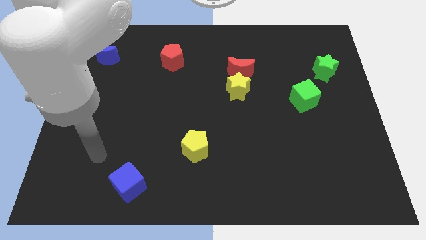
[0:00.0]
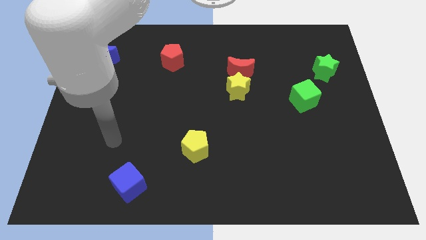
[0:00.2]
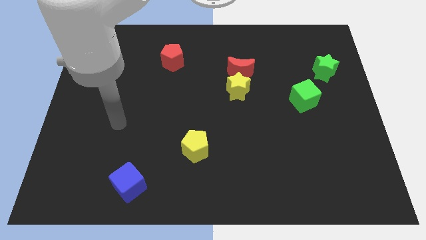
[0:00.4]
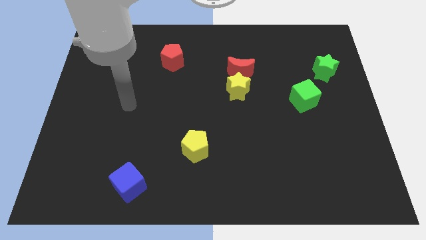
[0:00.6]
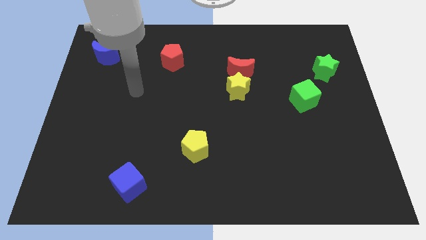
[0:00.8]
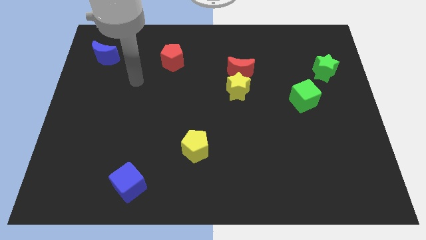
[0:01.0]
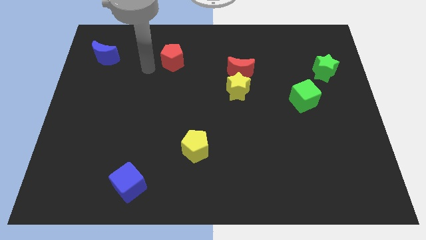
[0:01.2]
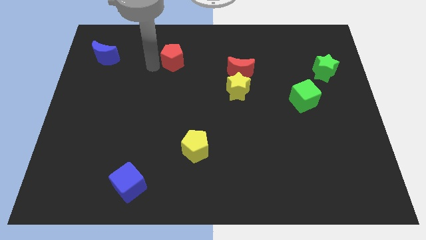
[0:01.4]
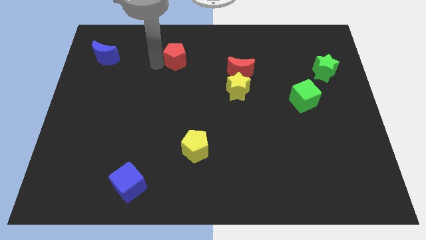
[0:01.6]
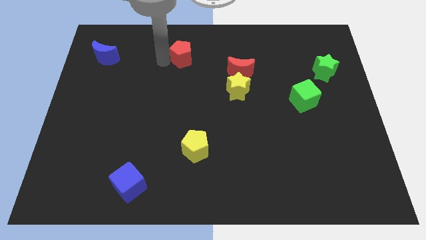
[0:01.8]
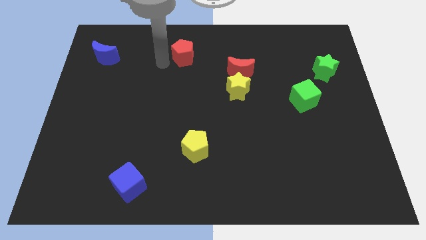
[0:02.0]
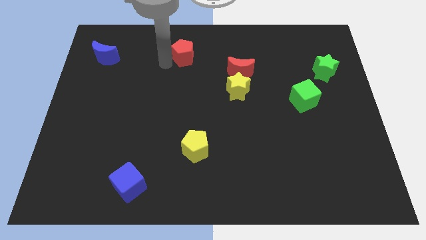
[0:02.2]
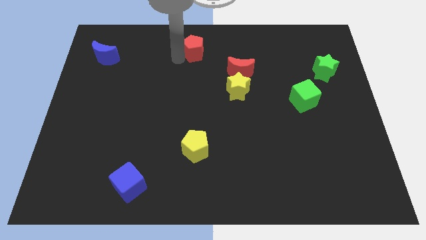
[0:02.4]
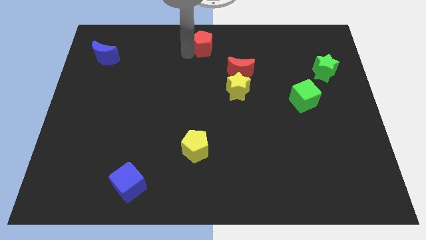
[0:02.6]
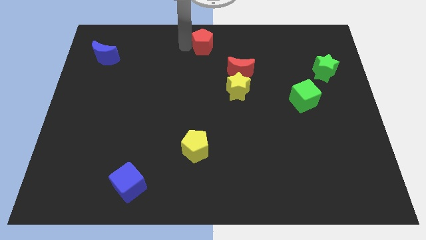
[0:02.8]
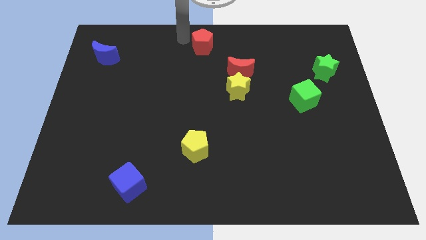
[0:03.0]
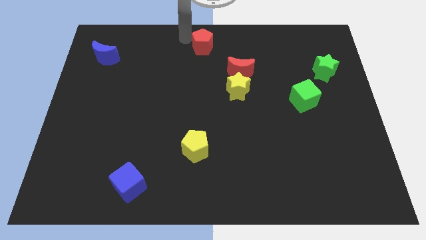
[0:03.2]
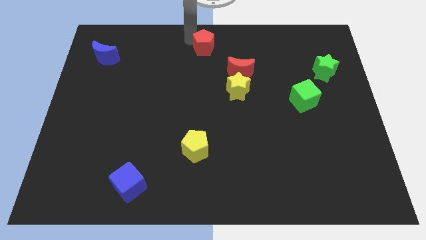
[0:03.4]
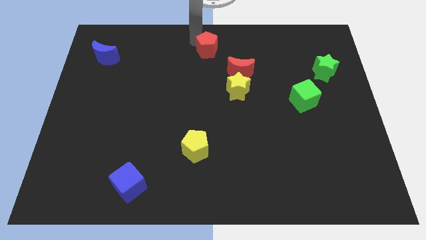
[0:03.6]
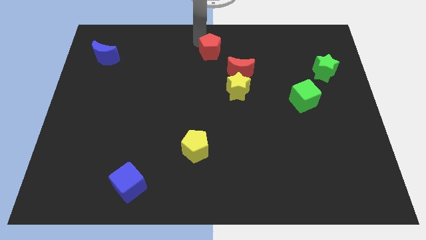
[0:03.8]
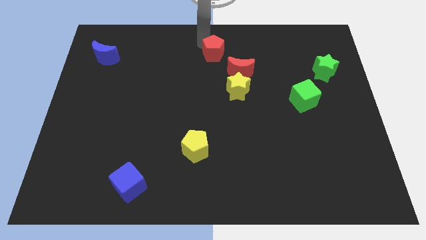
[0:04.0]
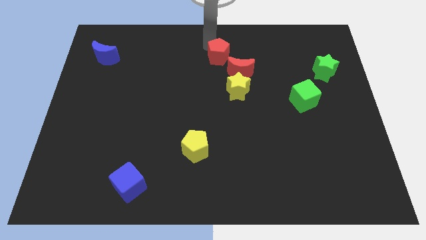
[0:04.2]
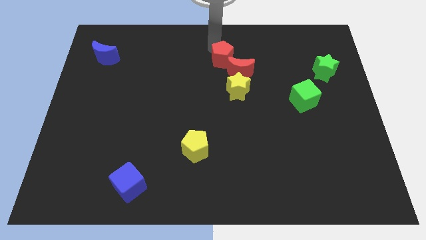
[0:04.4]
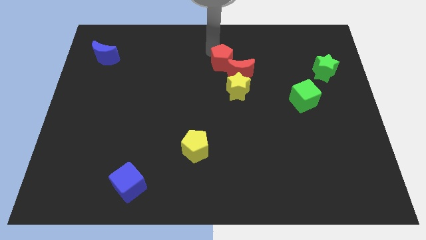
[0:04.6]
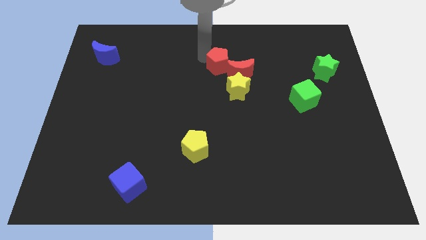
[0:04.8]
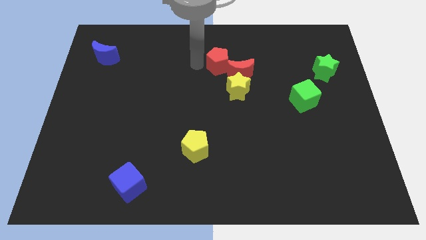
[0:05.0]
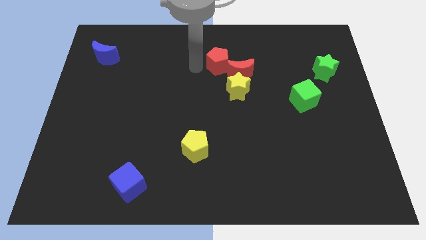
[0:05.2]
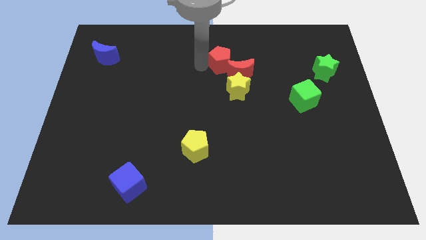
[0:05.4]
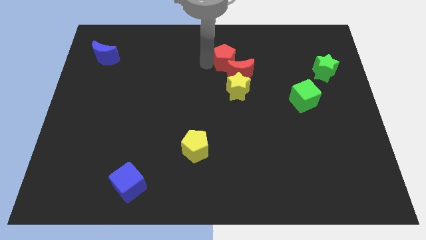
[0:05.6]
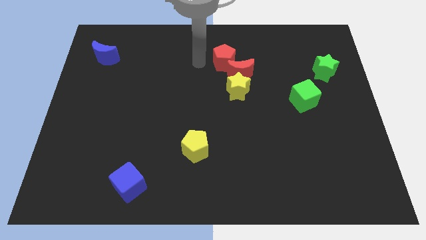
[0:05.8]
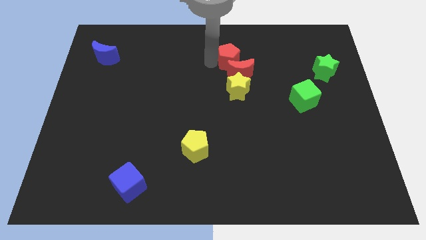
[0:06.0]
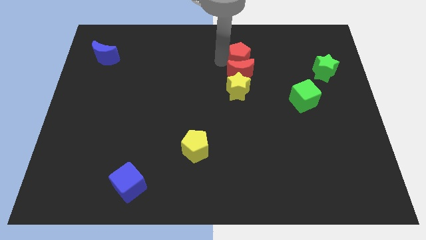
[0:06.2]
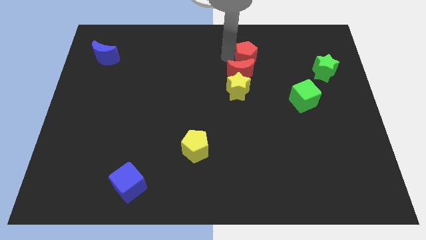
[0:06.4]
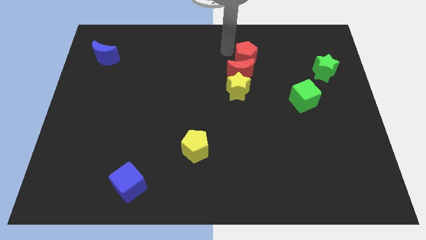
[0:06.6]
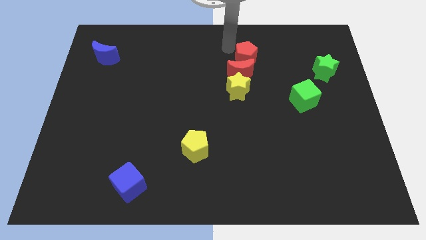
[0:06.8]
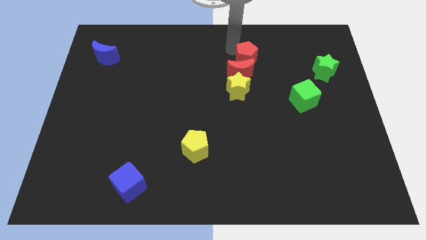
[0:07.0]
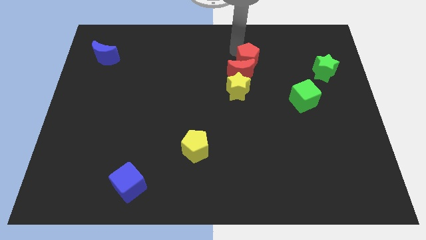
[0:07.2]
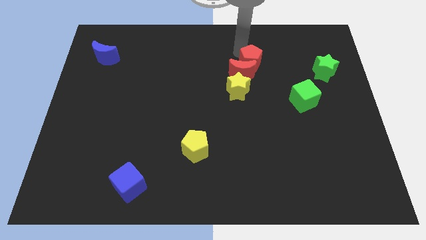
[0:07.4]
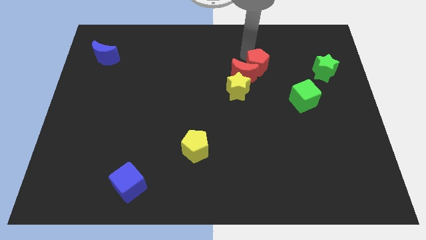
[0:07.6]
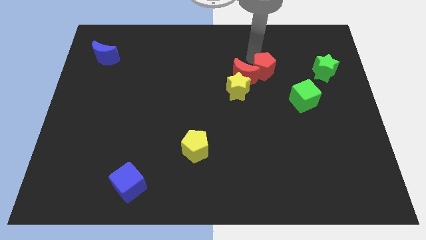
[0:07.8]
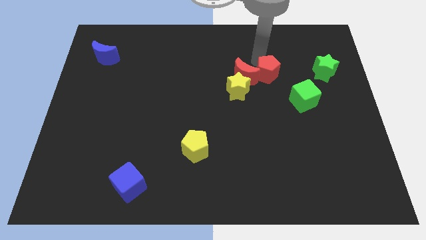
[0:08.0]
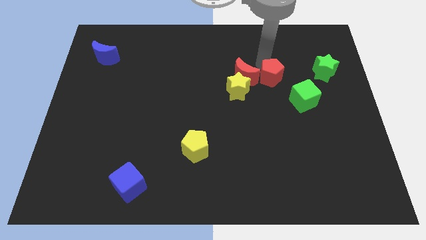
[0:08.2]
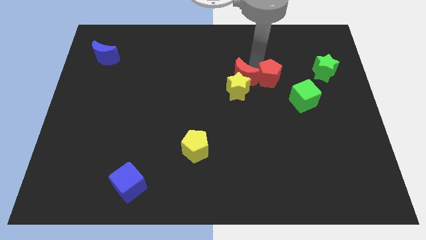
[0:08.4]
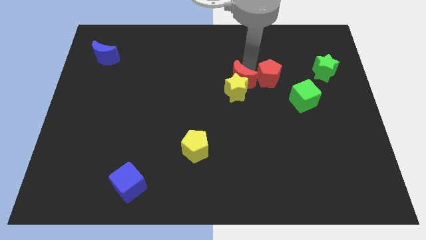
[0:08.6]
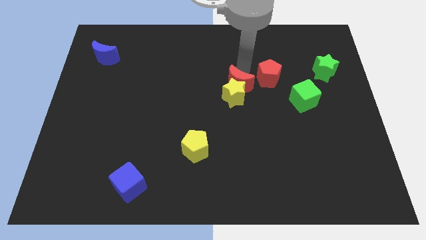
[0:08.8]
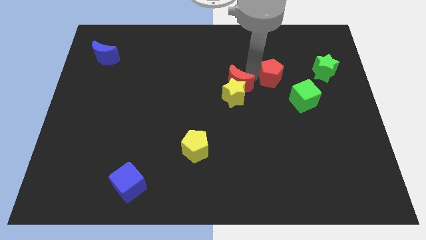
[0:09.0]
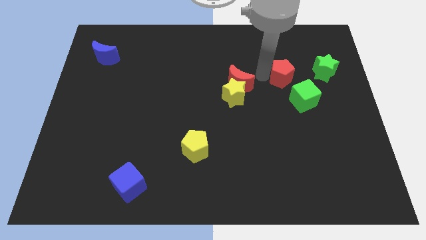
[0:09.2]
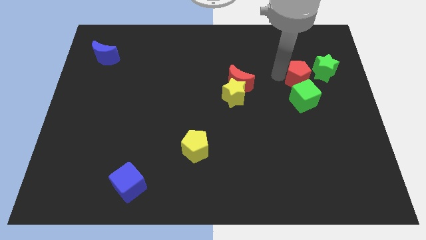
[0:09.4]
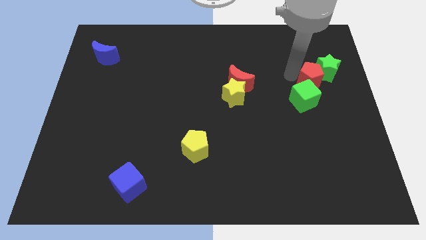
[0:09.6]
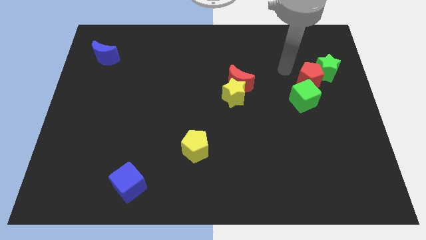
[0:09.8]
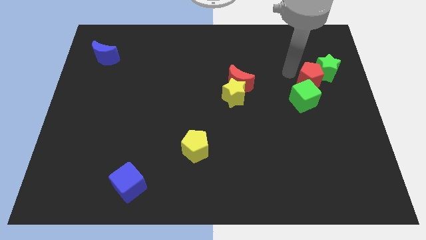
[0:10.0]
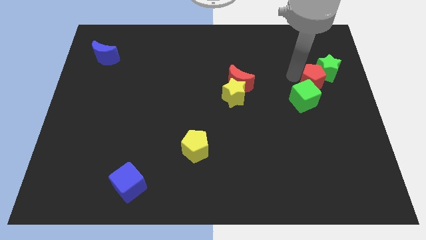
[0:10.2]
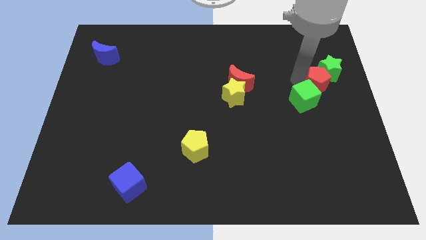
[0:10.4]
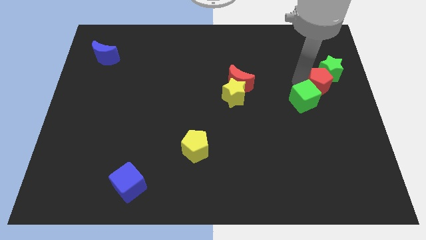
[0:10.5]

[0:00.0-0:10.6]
put the red pentagon to the right side of the board

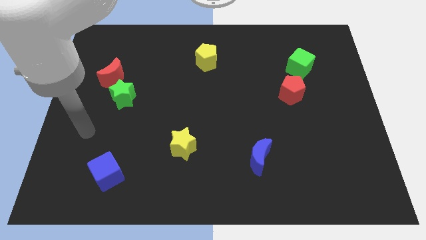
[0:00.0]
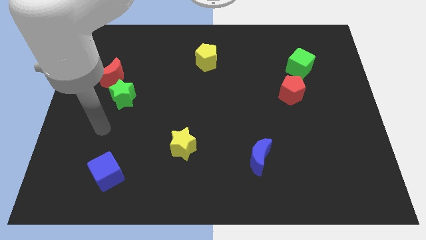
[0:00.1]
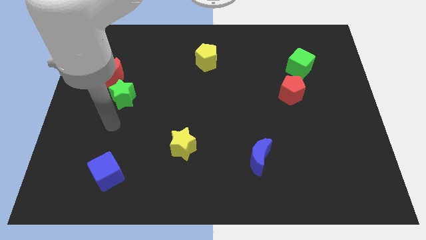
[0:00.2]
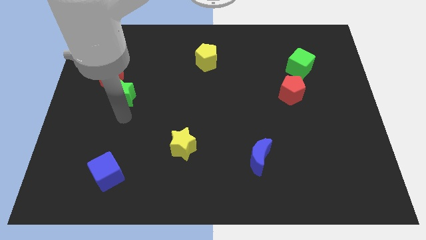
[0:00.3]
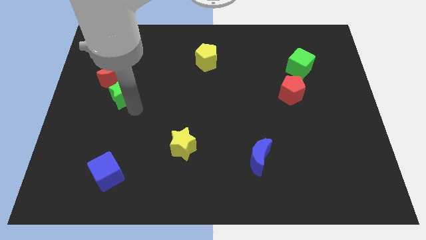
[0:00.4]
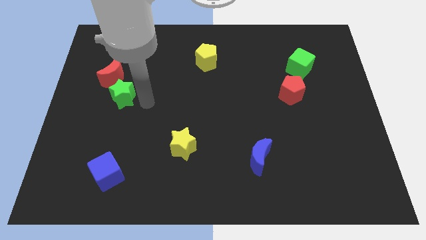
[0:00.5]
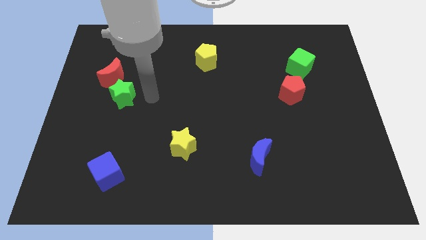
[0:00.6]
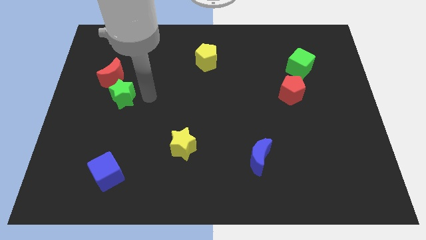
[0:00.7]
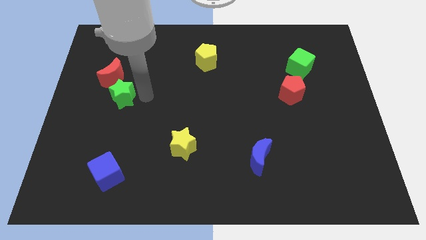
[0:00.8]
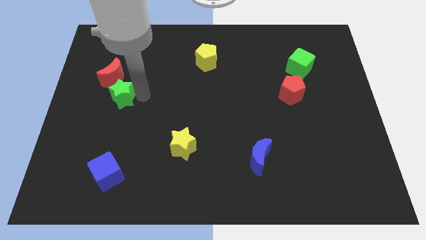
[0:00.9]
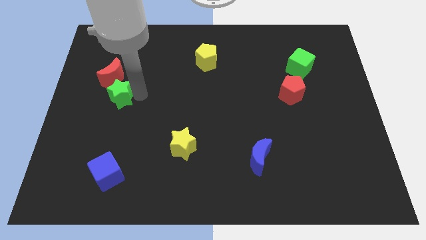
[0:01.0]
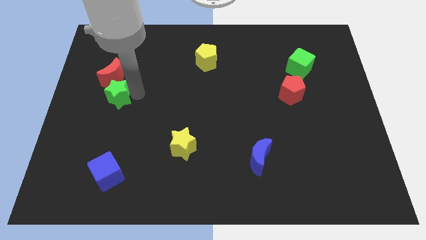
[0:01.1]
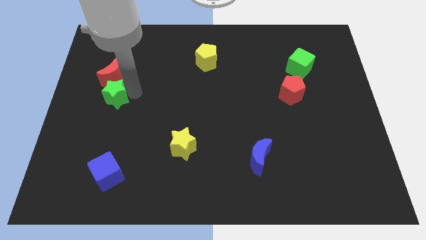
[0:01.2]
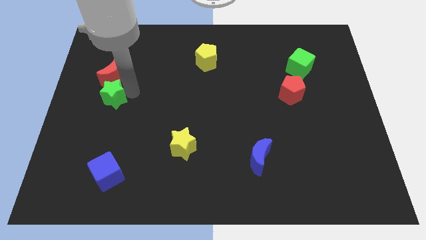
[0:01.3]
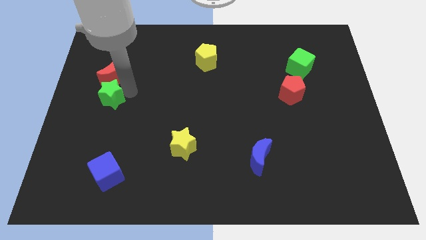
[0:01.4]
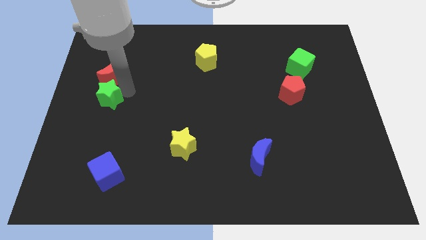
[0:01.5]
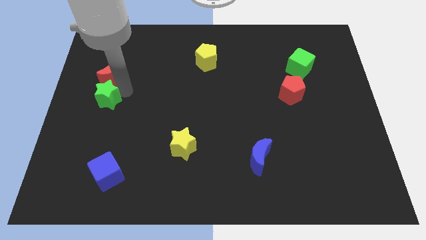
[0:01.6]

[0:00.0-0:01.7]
put the green star to the left side
